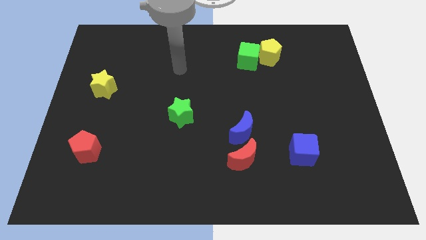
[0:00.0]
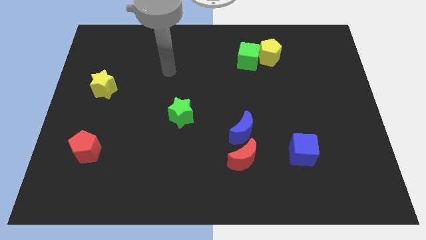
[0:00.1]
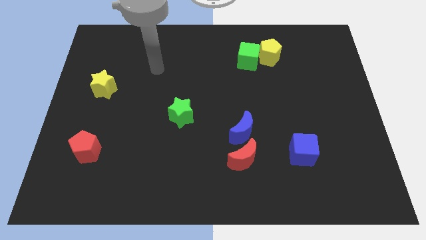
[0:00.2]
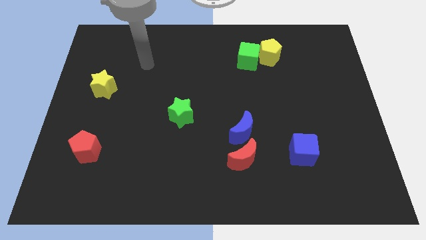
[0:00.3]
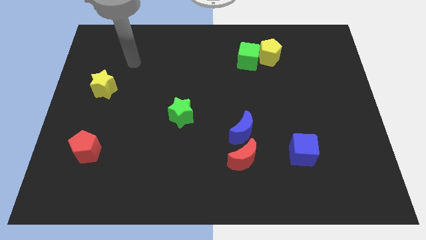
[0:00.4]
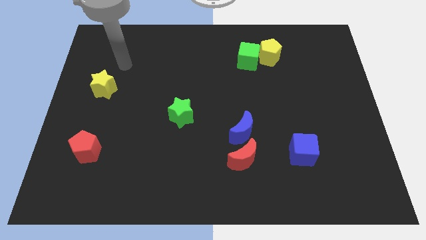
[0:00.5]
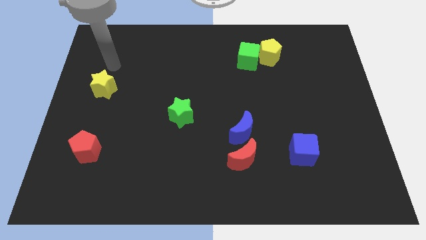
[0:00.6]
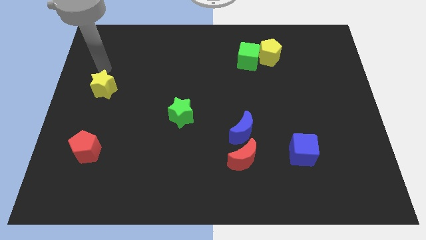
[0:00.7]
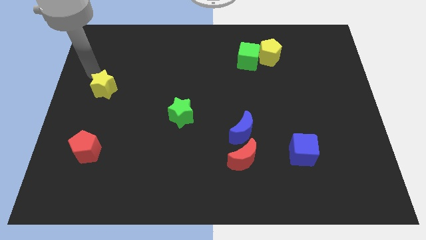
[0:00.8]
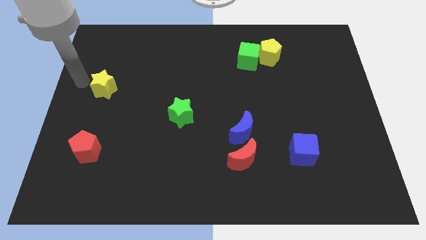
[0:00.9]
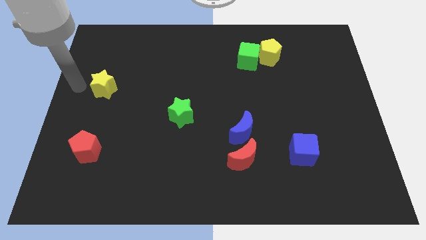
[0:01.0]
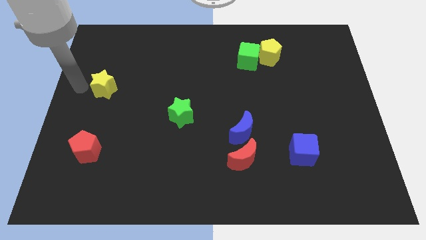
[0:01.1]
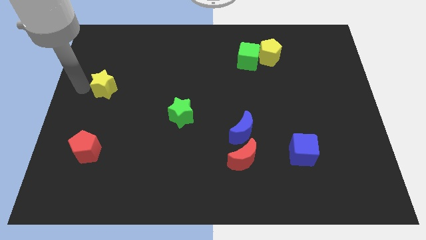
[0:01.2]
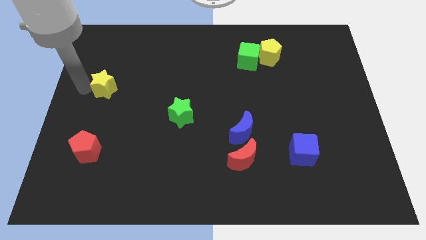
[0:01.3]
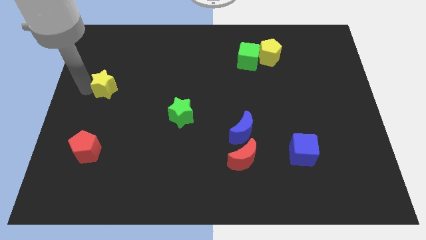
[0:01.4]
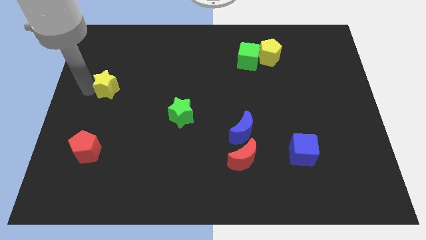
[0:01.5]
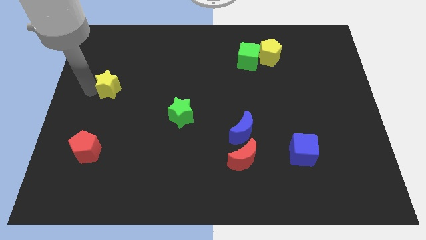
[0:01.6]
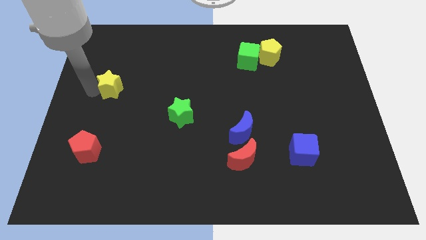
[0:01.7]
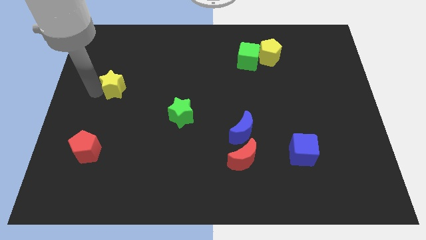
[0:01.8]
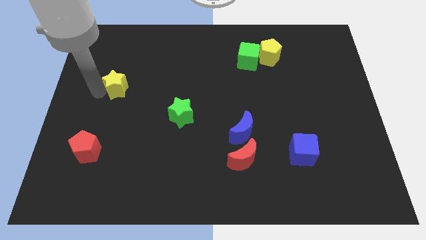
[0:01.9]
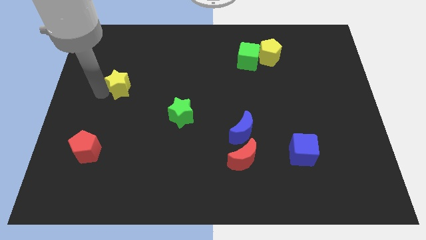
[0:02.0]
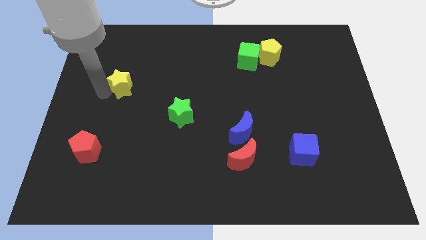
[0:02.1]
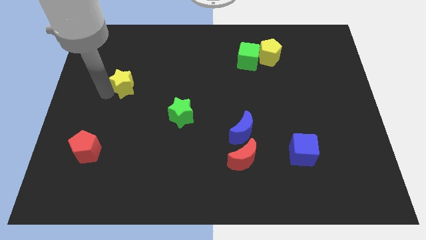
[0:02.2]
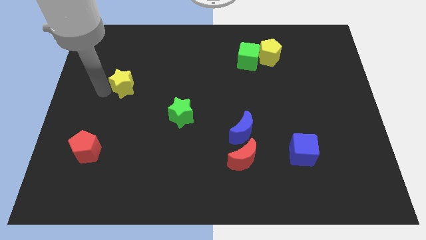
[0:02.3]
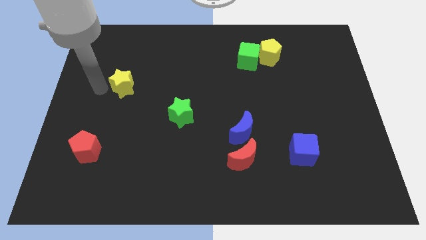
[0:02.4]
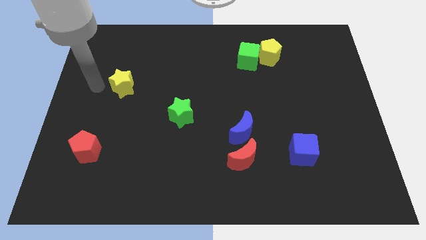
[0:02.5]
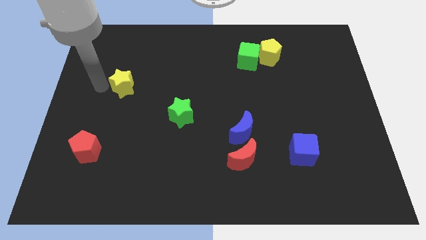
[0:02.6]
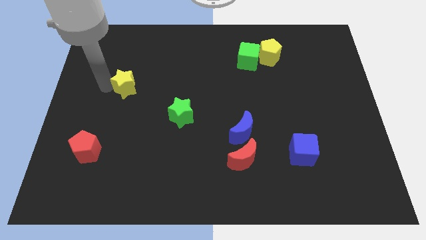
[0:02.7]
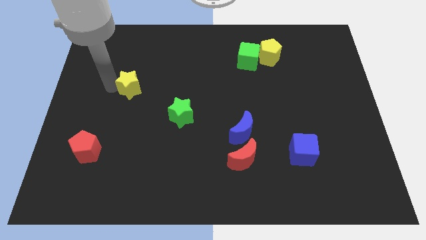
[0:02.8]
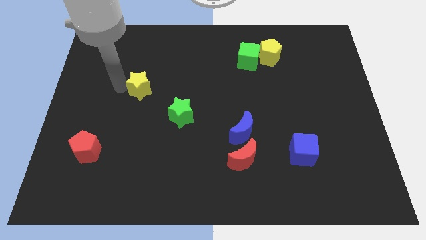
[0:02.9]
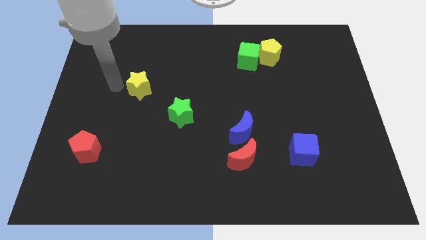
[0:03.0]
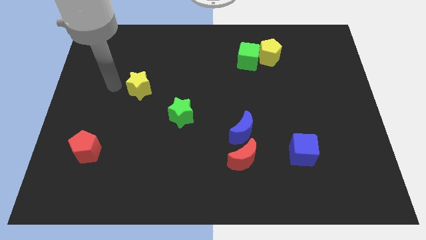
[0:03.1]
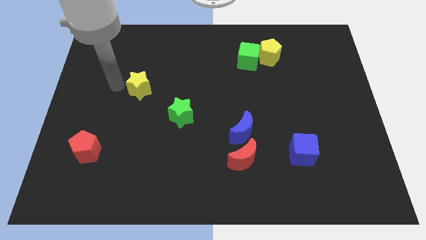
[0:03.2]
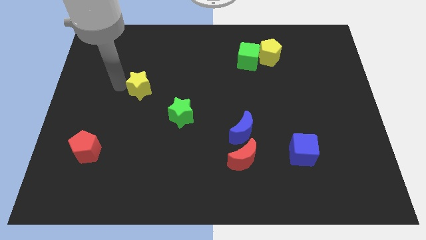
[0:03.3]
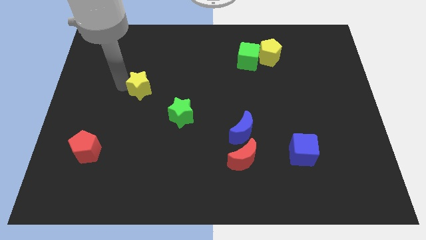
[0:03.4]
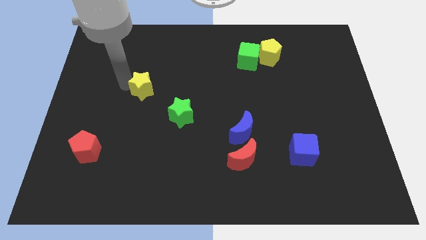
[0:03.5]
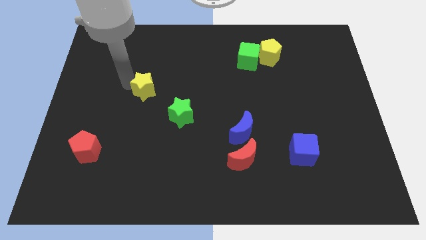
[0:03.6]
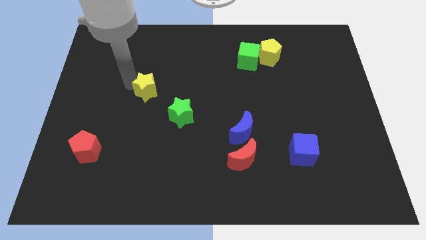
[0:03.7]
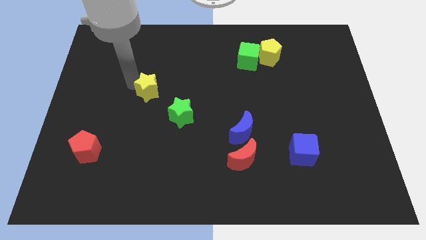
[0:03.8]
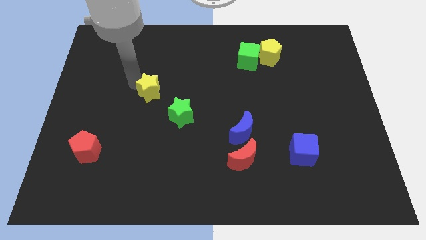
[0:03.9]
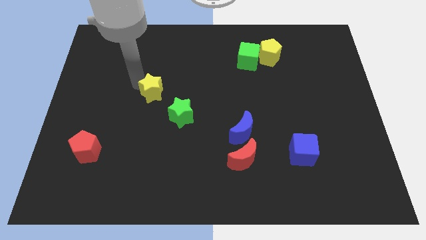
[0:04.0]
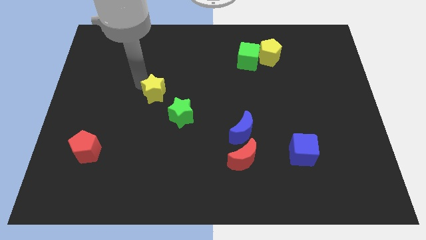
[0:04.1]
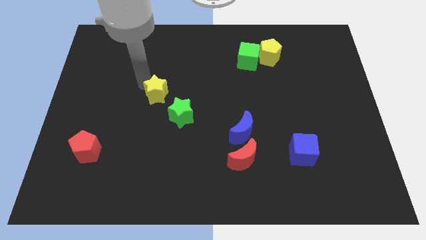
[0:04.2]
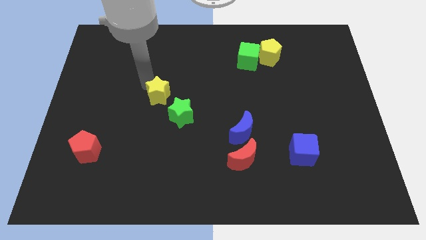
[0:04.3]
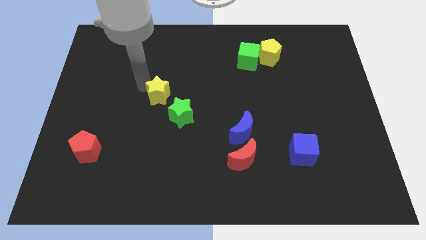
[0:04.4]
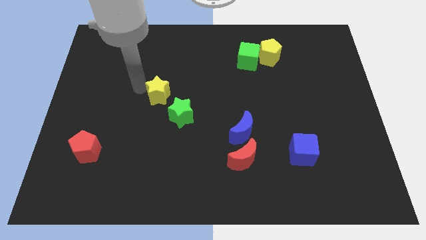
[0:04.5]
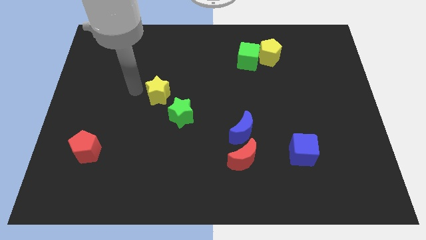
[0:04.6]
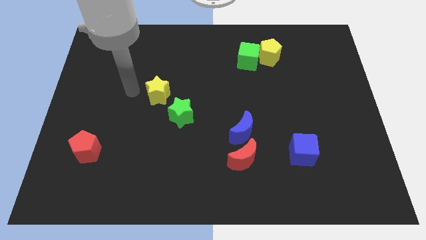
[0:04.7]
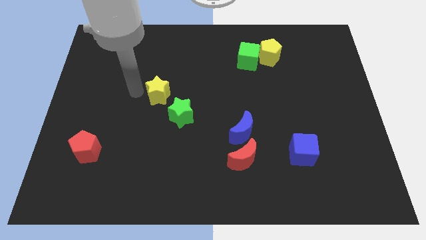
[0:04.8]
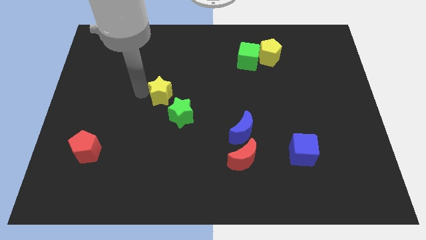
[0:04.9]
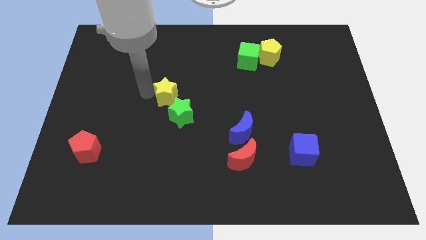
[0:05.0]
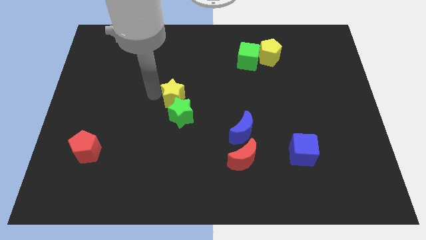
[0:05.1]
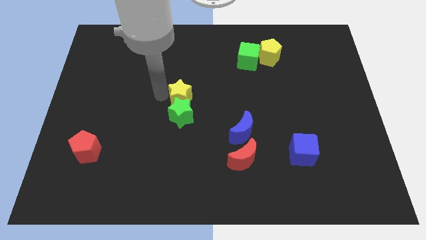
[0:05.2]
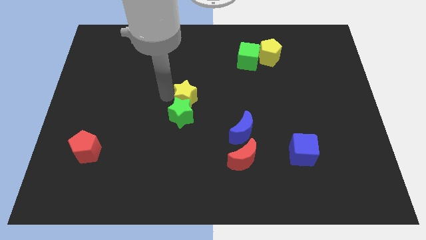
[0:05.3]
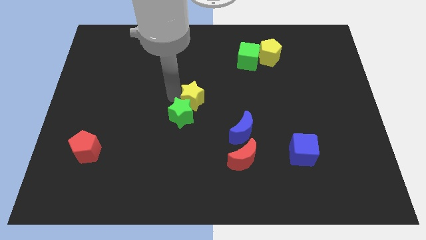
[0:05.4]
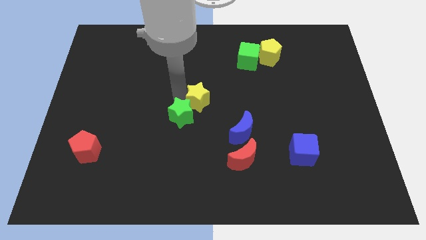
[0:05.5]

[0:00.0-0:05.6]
slide the yellow star just right of the green star

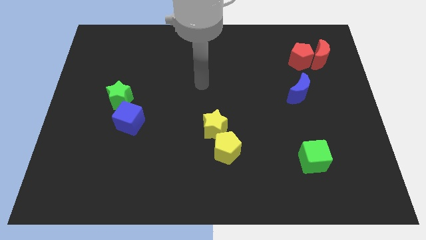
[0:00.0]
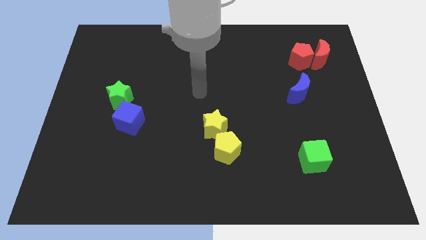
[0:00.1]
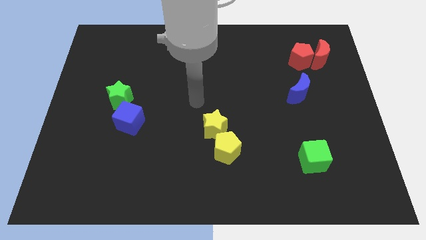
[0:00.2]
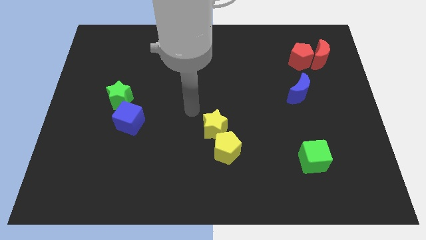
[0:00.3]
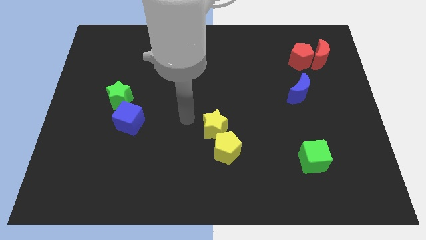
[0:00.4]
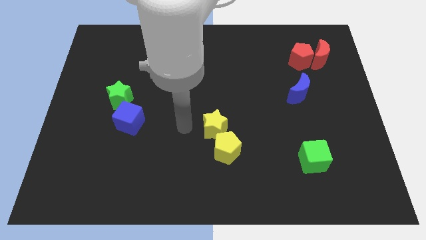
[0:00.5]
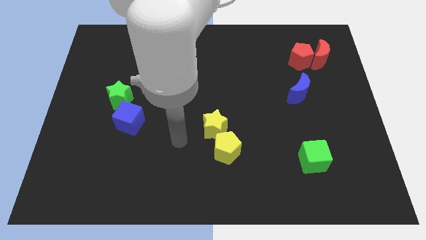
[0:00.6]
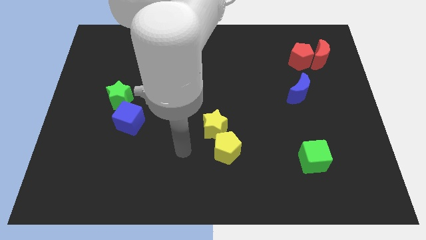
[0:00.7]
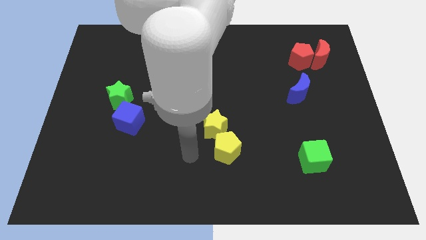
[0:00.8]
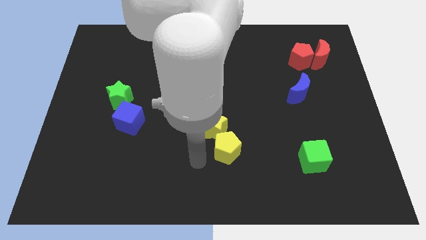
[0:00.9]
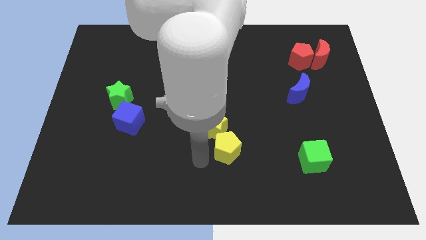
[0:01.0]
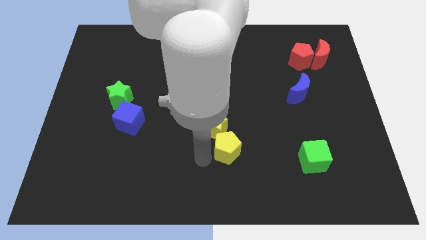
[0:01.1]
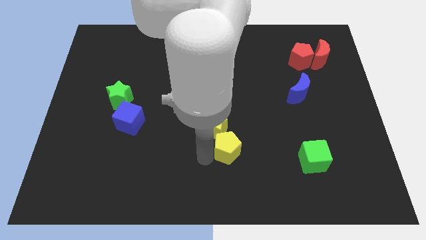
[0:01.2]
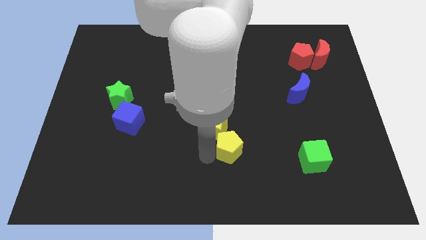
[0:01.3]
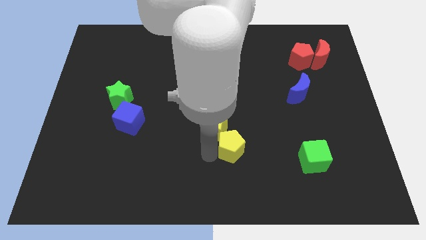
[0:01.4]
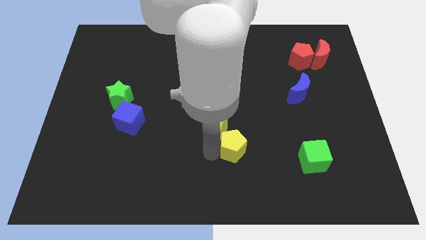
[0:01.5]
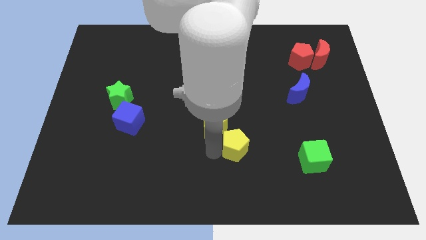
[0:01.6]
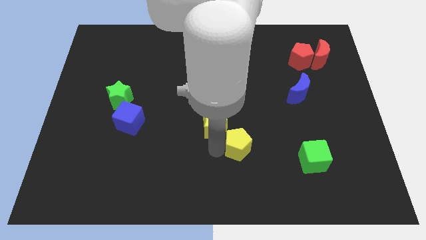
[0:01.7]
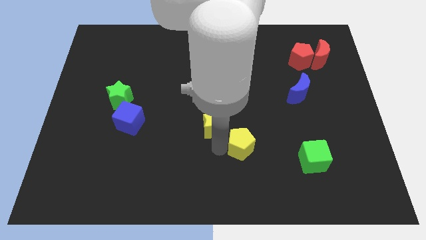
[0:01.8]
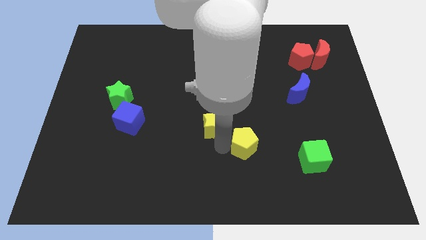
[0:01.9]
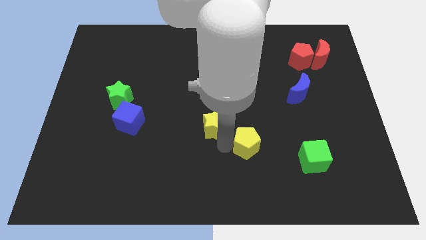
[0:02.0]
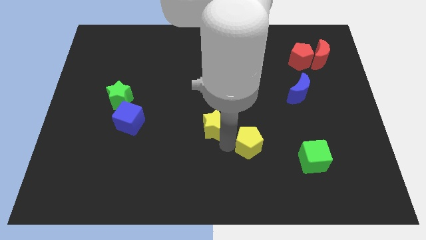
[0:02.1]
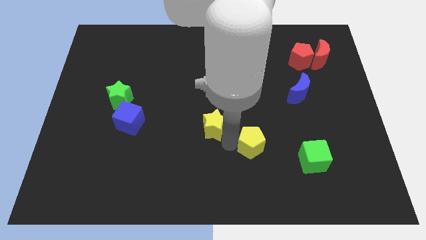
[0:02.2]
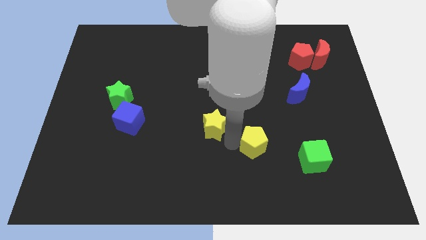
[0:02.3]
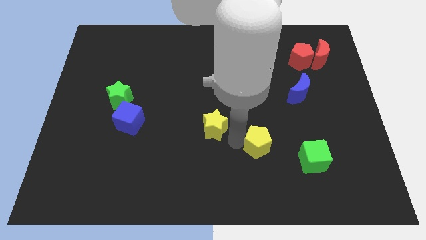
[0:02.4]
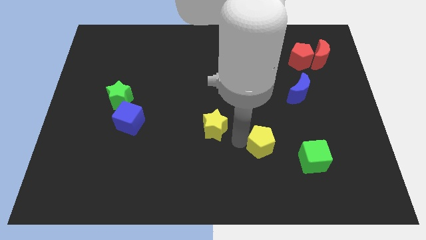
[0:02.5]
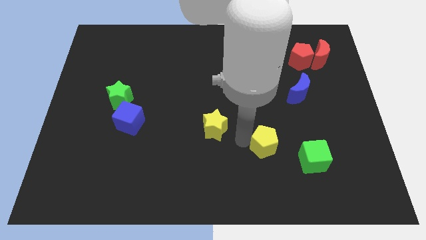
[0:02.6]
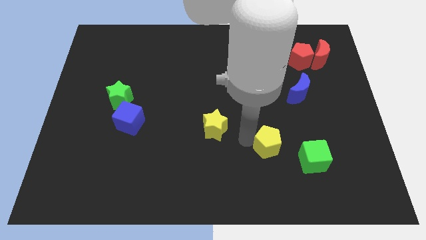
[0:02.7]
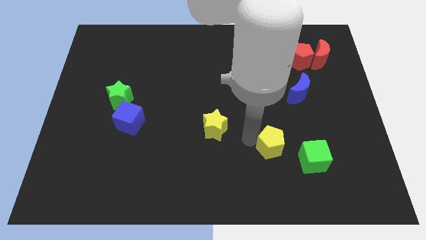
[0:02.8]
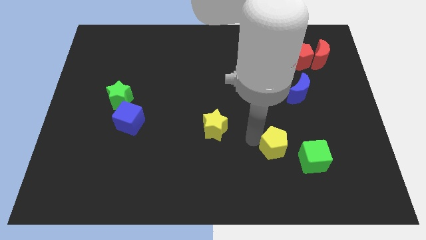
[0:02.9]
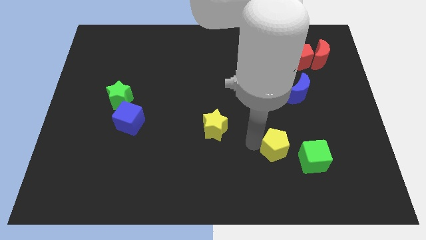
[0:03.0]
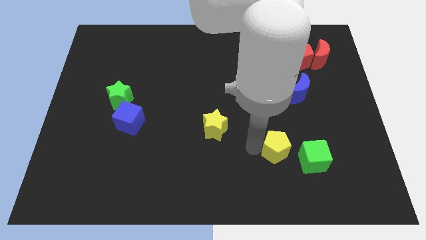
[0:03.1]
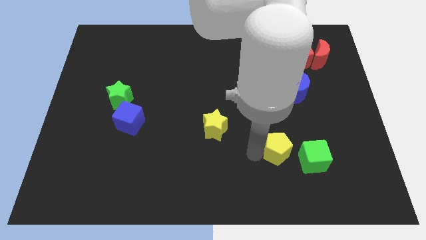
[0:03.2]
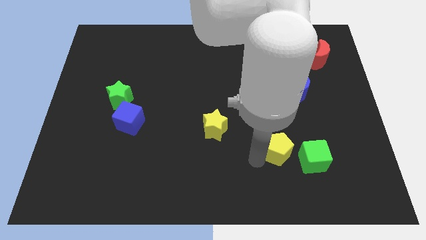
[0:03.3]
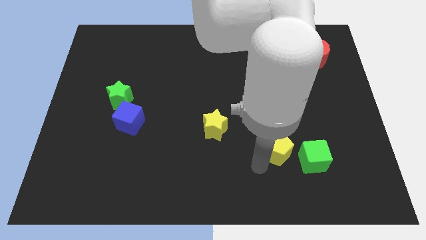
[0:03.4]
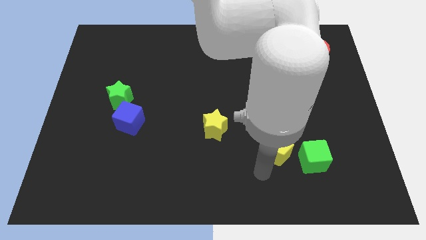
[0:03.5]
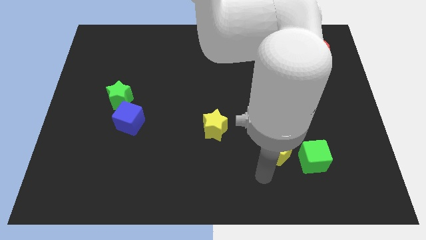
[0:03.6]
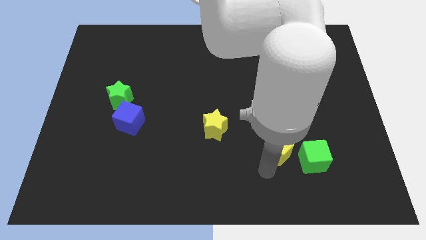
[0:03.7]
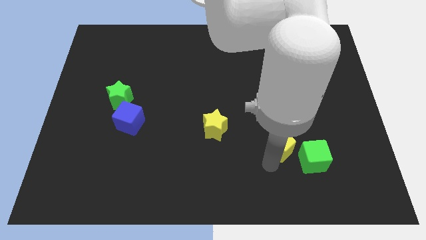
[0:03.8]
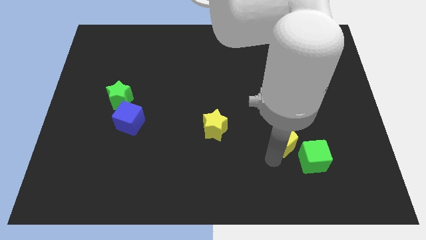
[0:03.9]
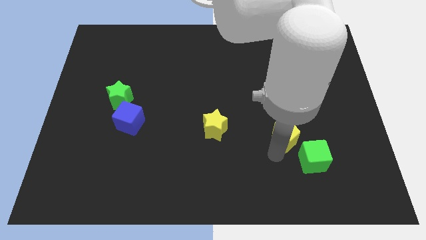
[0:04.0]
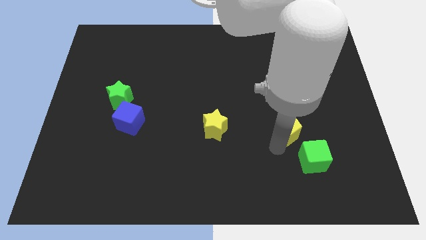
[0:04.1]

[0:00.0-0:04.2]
move the yellow pentagon to the bottom of the blue moon
